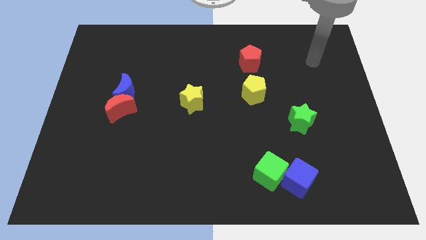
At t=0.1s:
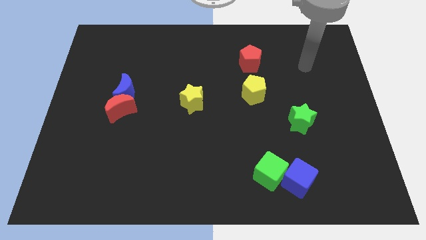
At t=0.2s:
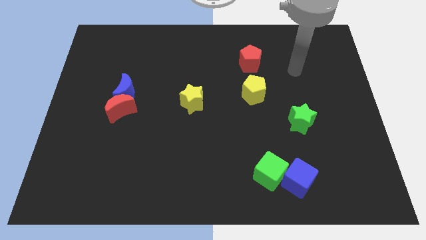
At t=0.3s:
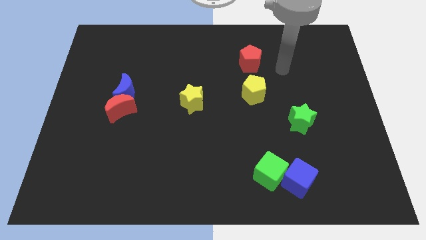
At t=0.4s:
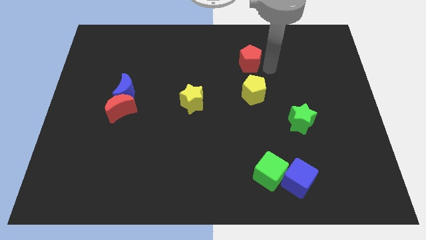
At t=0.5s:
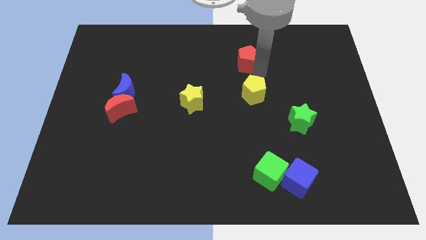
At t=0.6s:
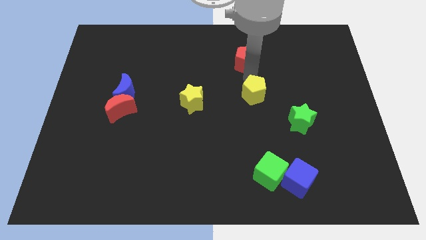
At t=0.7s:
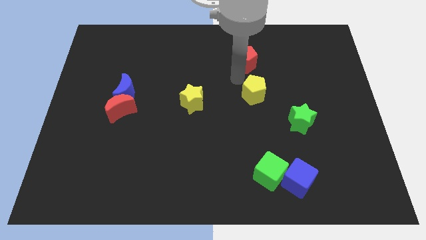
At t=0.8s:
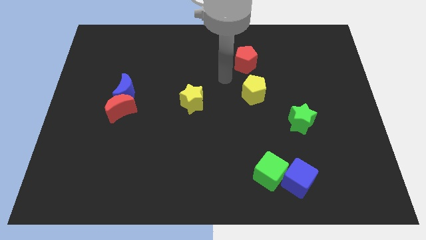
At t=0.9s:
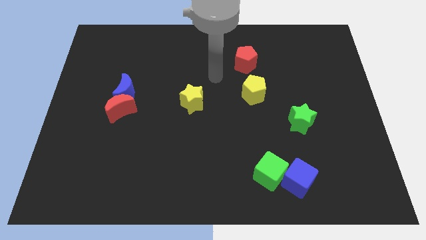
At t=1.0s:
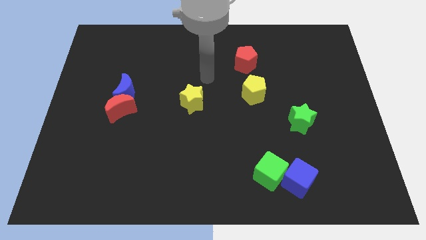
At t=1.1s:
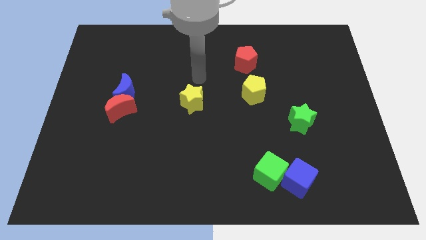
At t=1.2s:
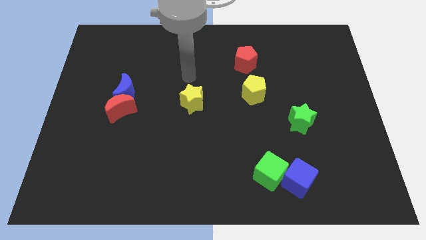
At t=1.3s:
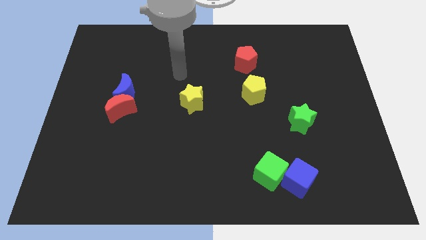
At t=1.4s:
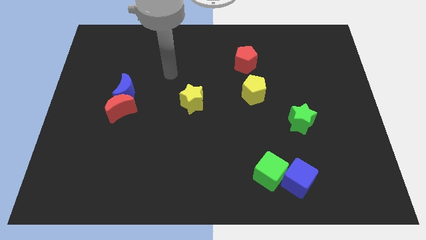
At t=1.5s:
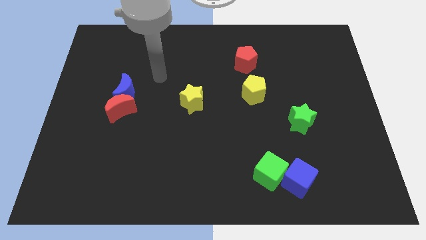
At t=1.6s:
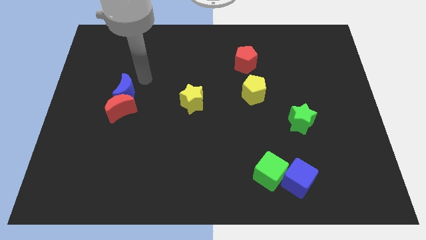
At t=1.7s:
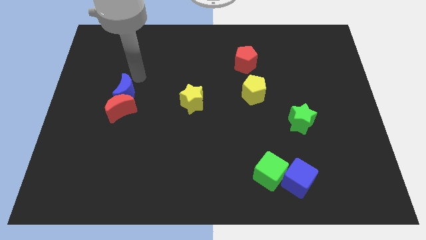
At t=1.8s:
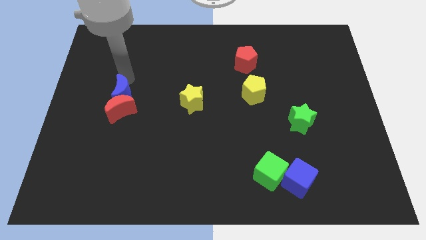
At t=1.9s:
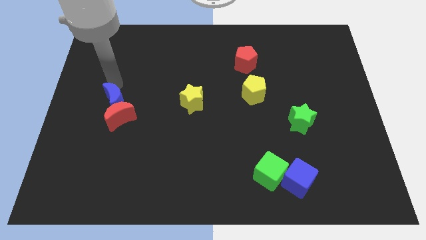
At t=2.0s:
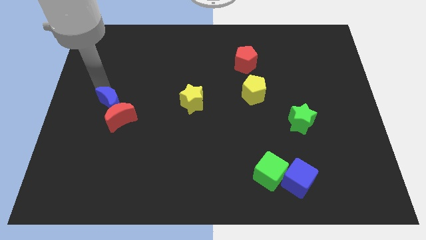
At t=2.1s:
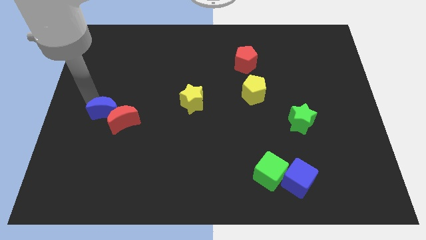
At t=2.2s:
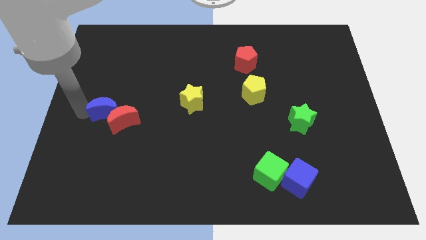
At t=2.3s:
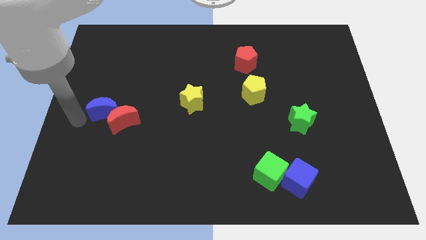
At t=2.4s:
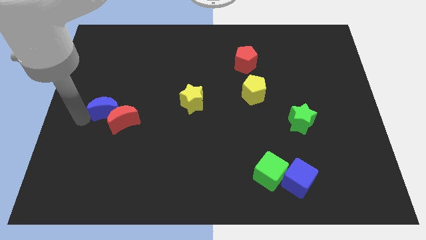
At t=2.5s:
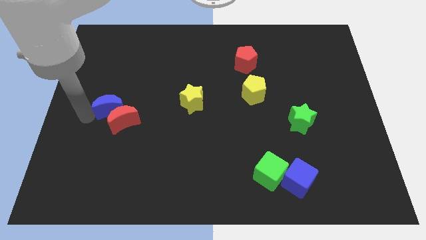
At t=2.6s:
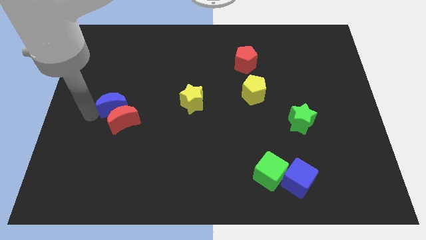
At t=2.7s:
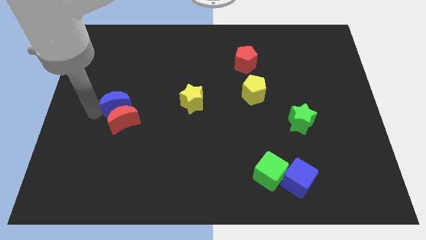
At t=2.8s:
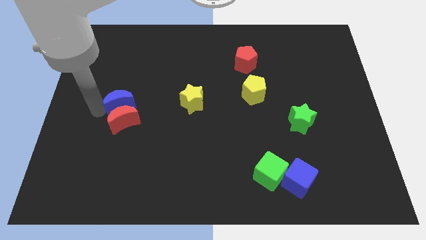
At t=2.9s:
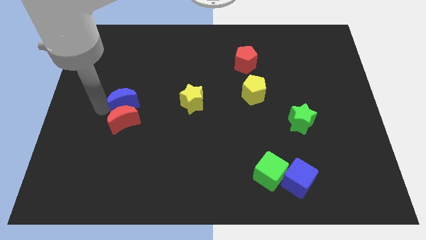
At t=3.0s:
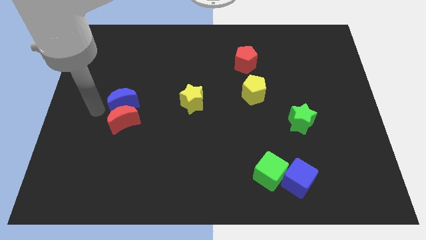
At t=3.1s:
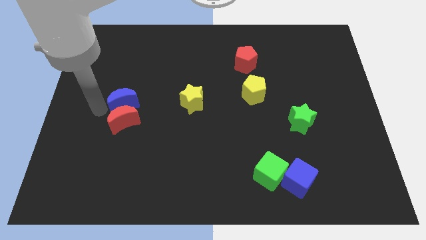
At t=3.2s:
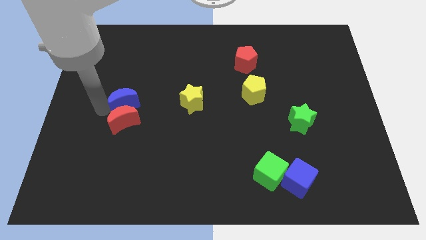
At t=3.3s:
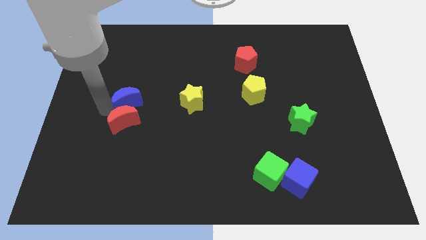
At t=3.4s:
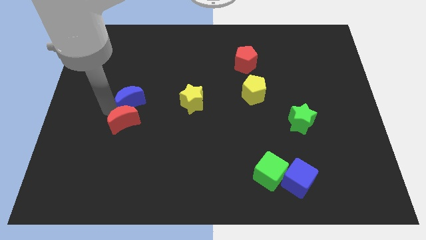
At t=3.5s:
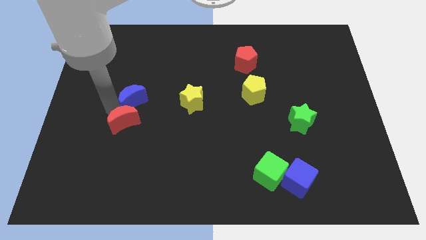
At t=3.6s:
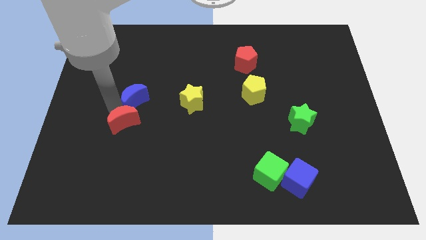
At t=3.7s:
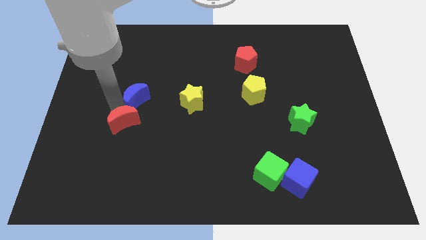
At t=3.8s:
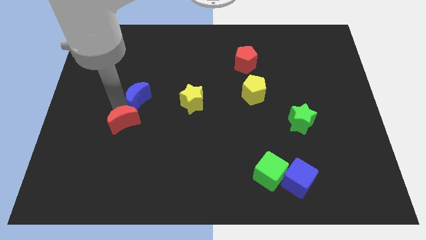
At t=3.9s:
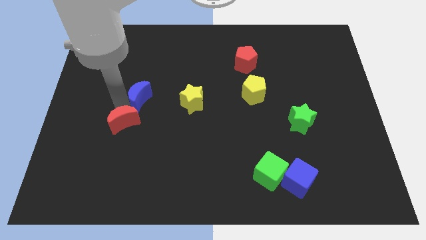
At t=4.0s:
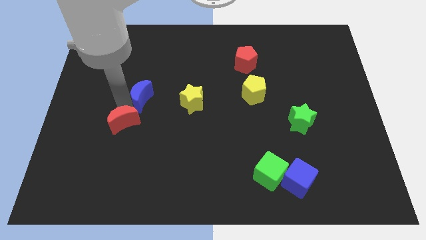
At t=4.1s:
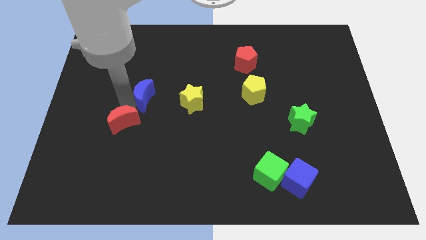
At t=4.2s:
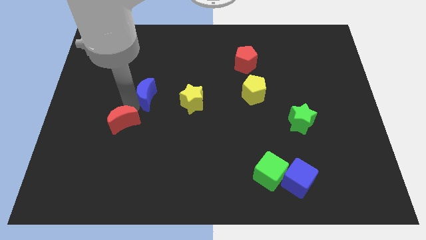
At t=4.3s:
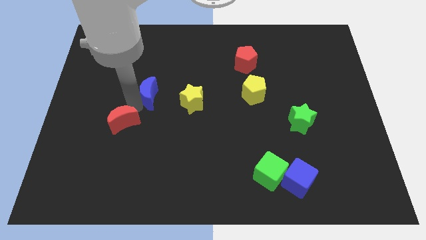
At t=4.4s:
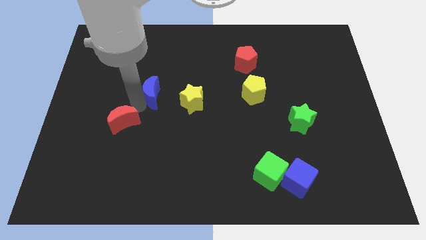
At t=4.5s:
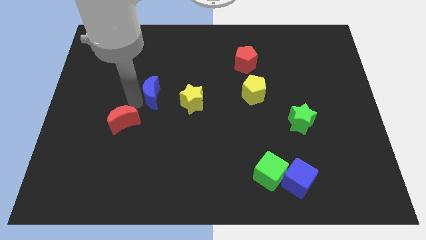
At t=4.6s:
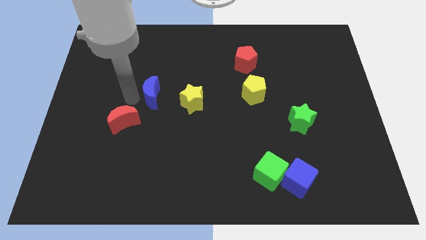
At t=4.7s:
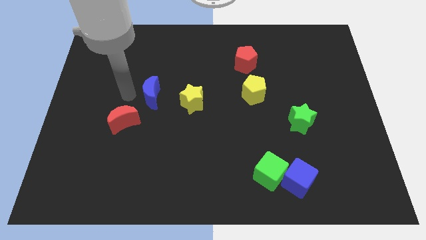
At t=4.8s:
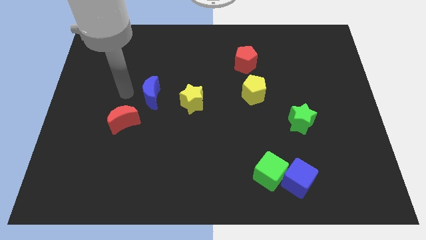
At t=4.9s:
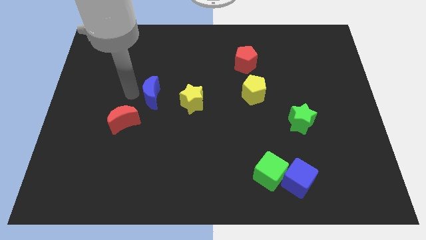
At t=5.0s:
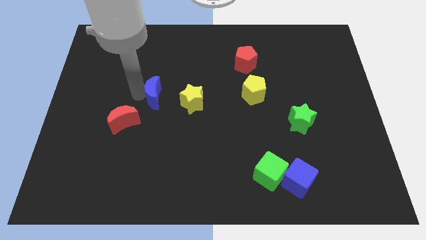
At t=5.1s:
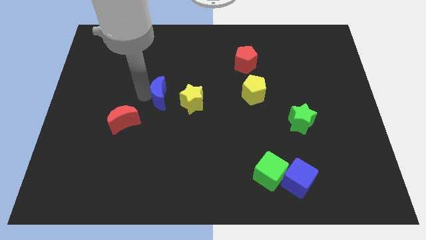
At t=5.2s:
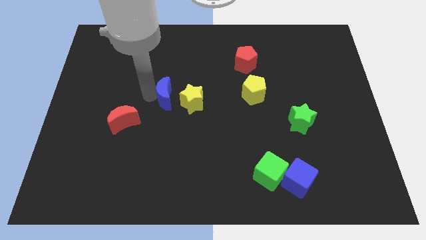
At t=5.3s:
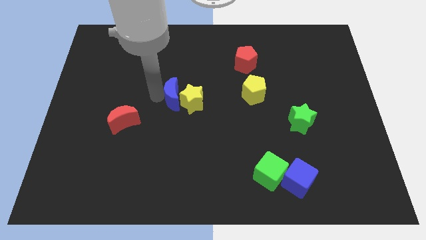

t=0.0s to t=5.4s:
slide the blue moon next to the yellow star

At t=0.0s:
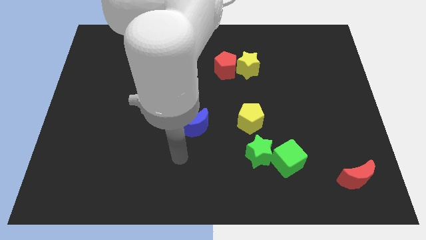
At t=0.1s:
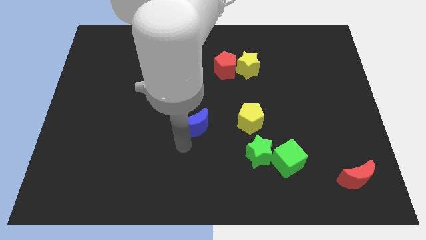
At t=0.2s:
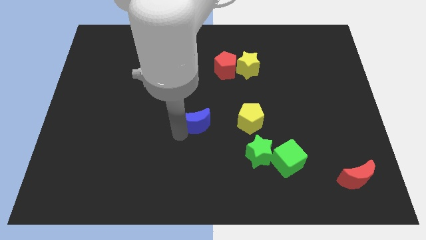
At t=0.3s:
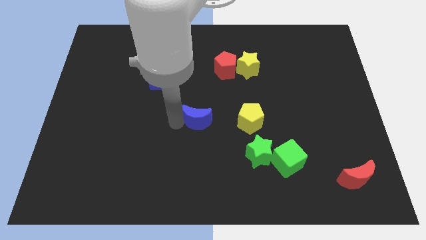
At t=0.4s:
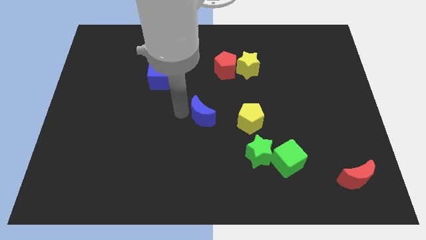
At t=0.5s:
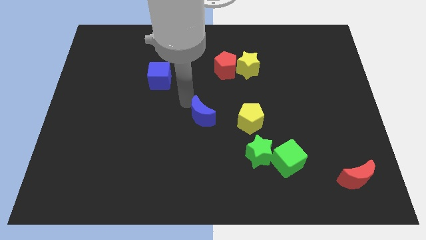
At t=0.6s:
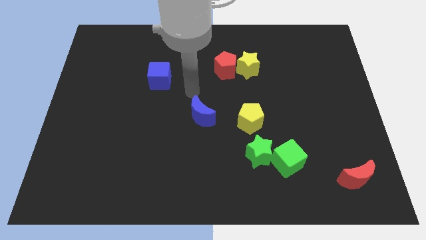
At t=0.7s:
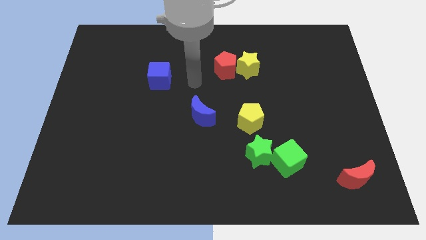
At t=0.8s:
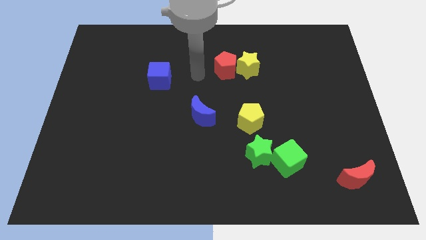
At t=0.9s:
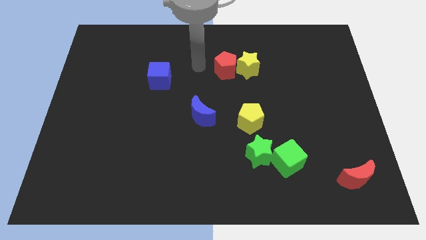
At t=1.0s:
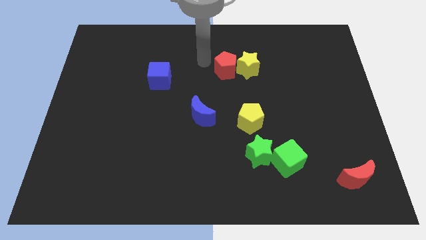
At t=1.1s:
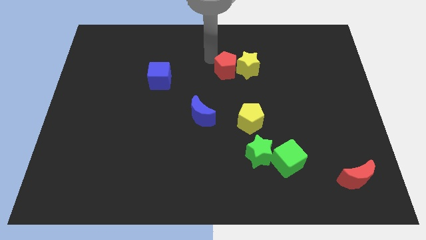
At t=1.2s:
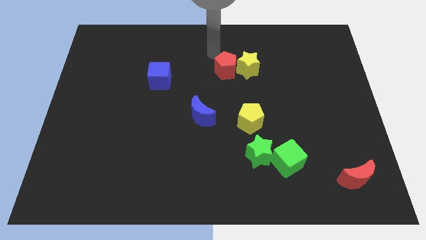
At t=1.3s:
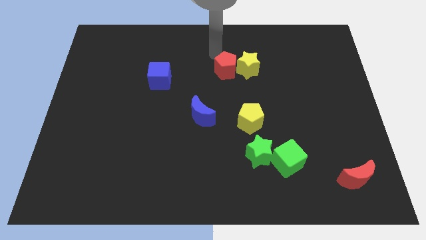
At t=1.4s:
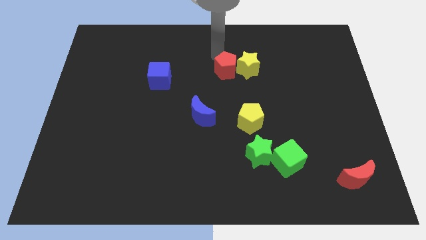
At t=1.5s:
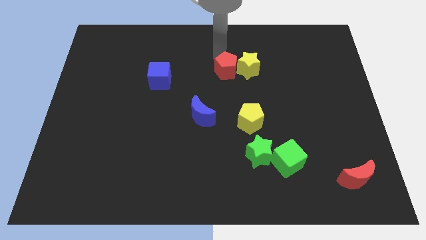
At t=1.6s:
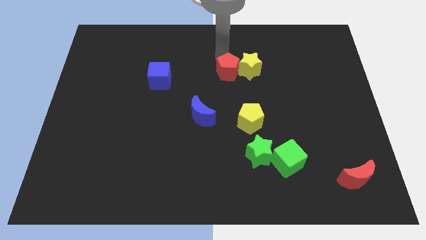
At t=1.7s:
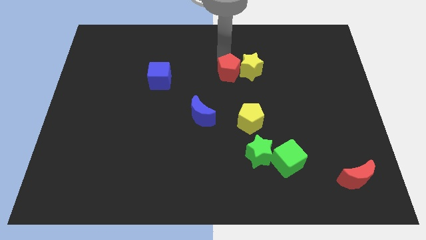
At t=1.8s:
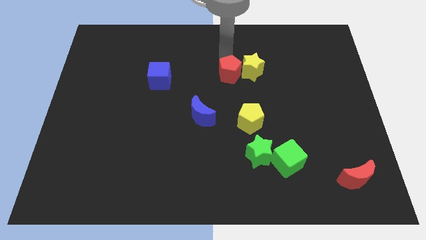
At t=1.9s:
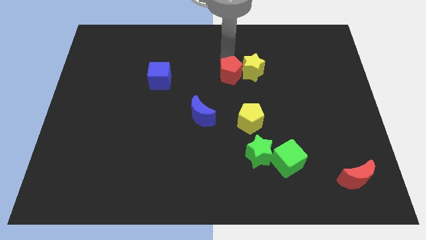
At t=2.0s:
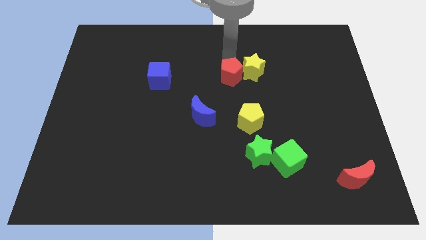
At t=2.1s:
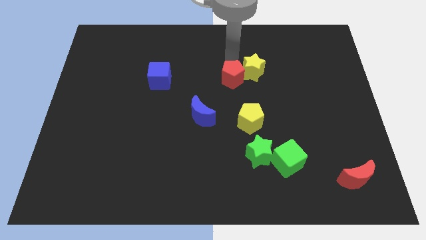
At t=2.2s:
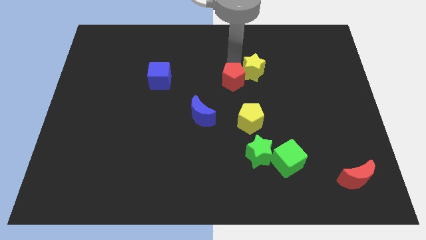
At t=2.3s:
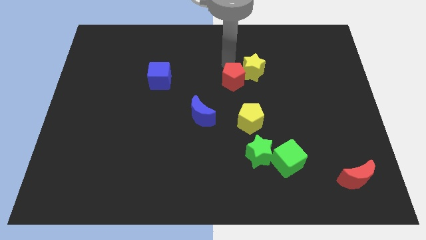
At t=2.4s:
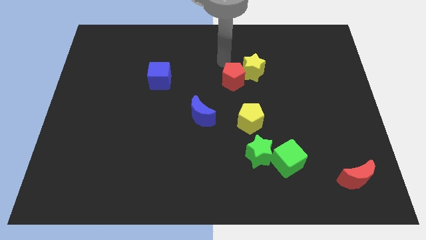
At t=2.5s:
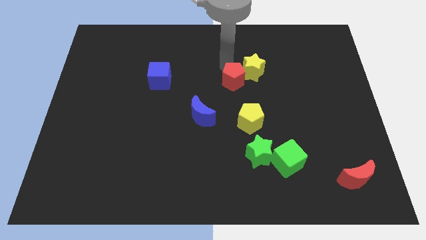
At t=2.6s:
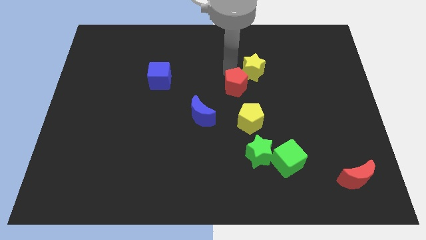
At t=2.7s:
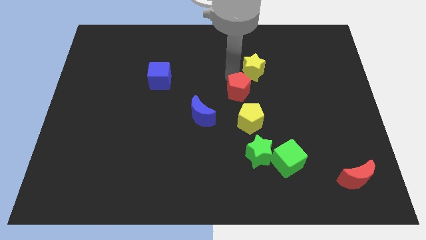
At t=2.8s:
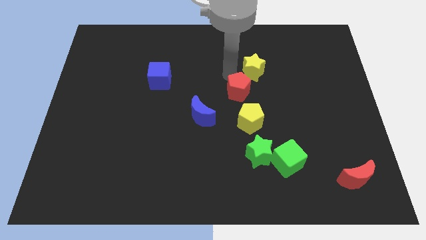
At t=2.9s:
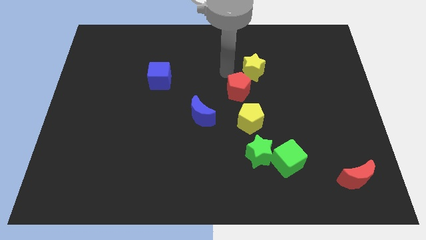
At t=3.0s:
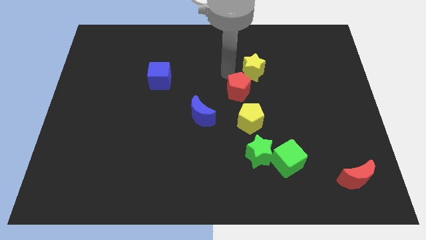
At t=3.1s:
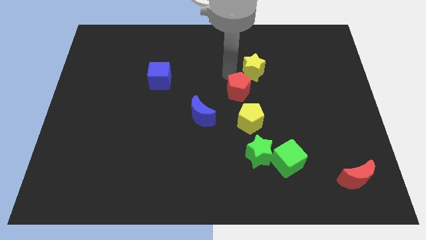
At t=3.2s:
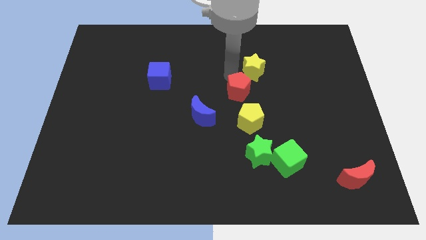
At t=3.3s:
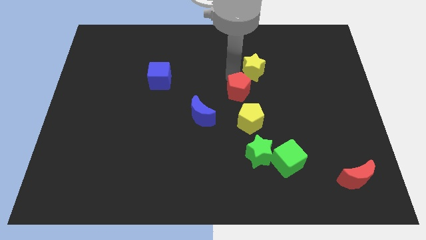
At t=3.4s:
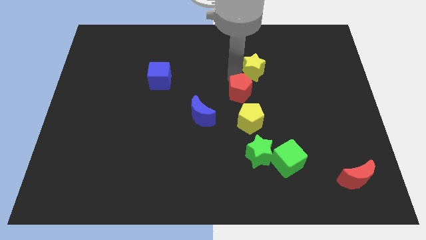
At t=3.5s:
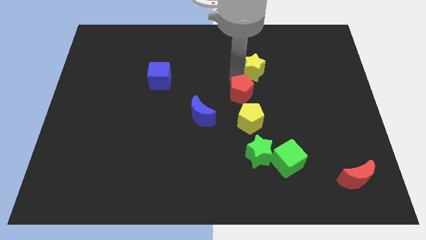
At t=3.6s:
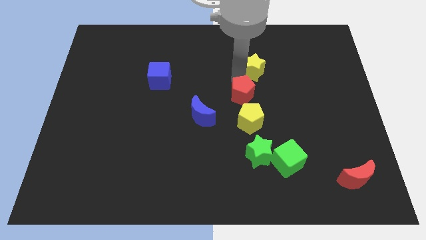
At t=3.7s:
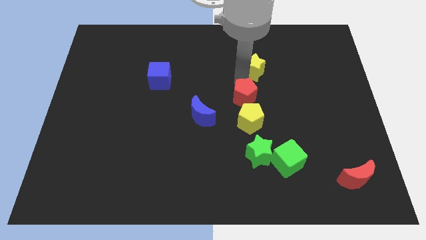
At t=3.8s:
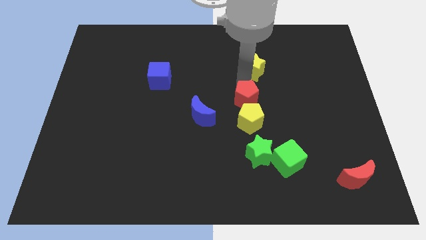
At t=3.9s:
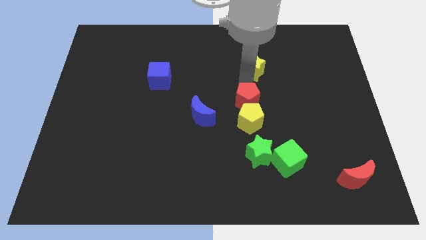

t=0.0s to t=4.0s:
move the red pentagon towards the yellow pentagon
